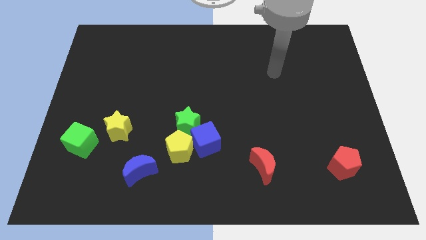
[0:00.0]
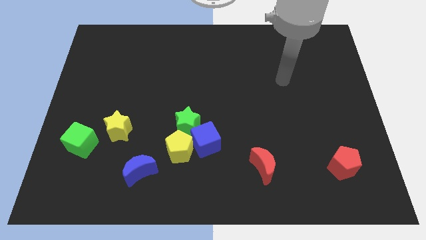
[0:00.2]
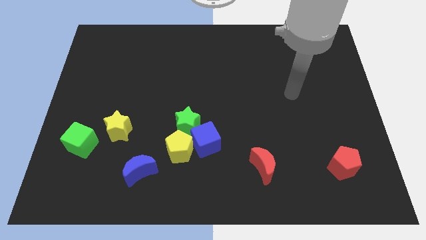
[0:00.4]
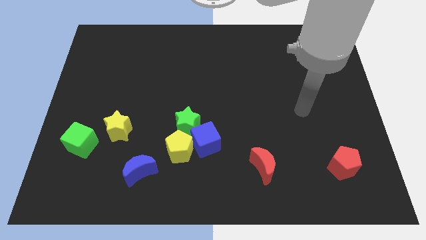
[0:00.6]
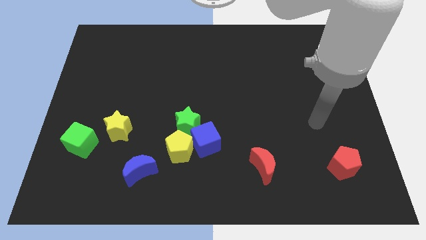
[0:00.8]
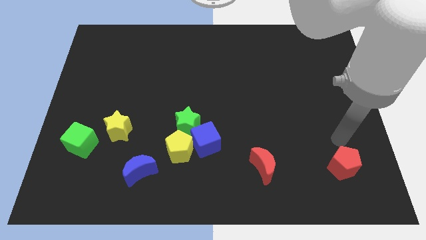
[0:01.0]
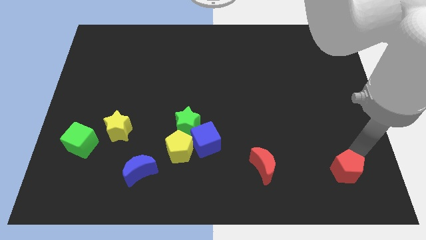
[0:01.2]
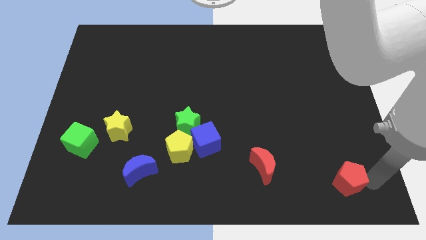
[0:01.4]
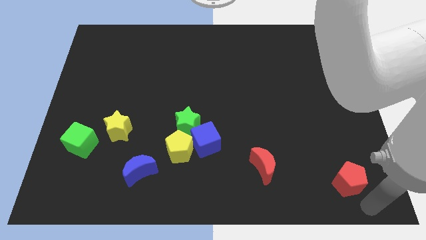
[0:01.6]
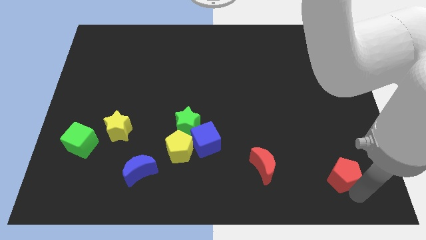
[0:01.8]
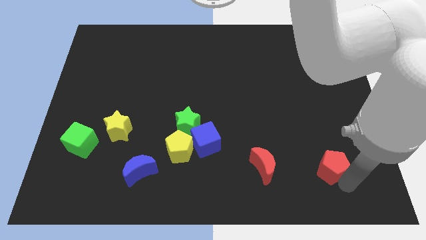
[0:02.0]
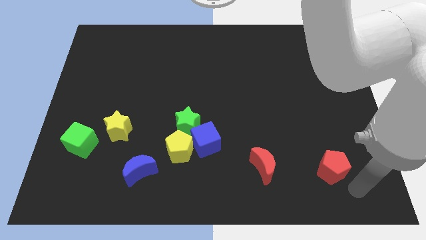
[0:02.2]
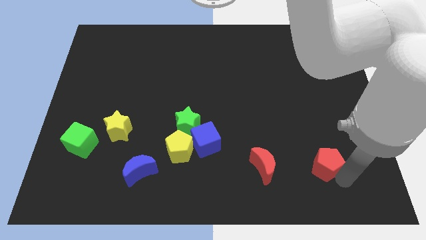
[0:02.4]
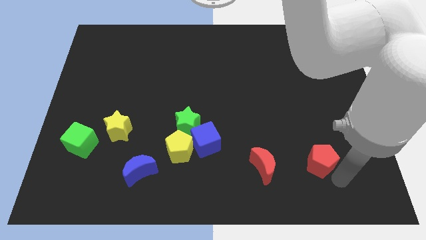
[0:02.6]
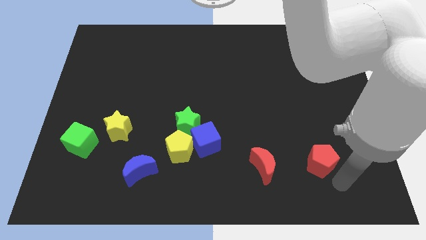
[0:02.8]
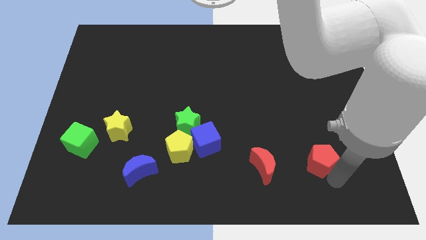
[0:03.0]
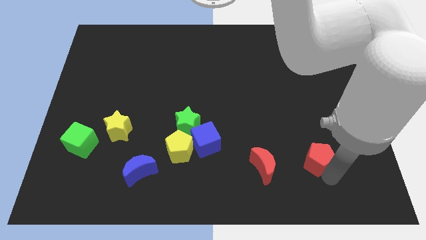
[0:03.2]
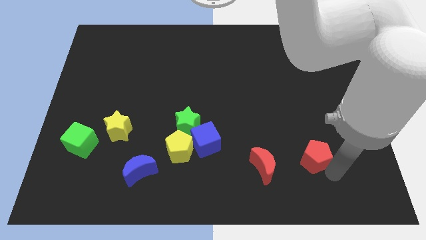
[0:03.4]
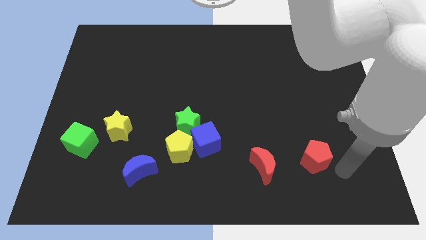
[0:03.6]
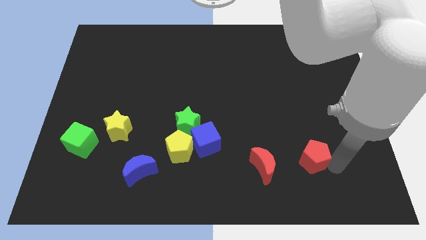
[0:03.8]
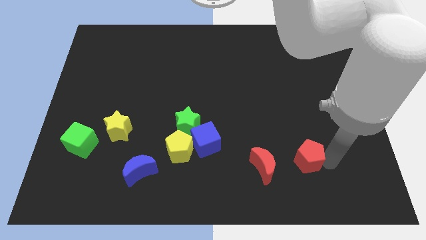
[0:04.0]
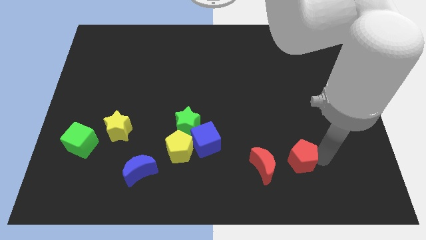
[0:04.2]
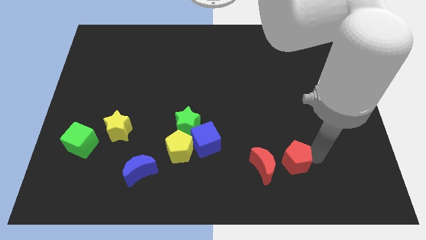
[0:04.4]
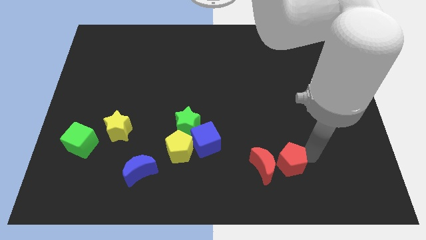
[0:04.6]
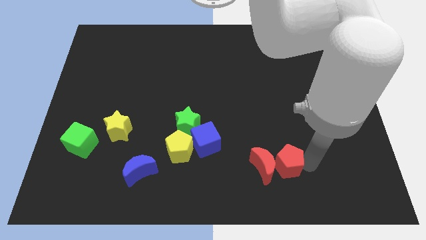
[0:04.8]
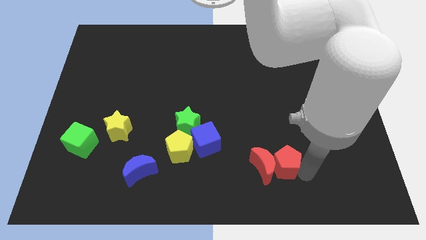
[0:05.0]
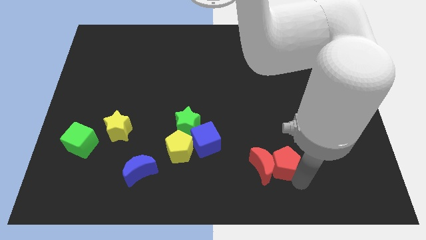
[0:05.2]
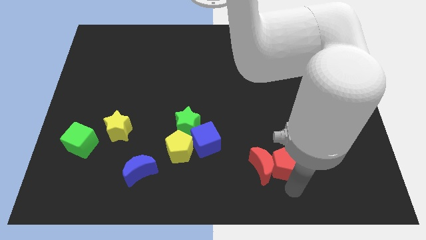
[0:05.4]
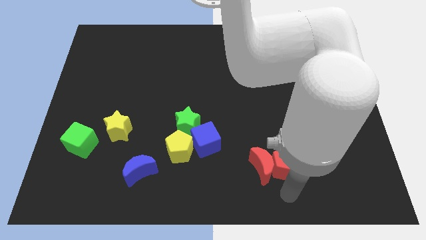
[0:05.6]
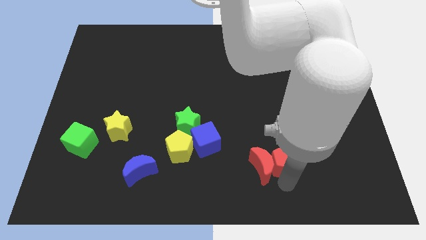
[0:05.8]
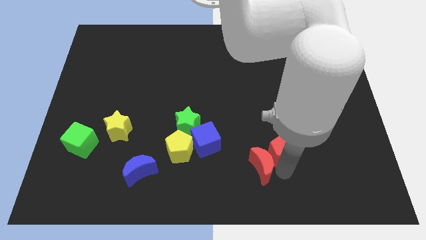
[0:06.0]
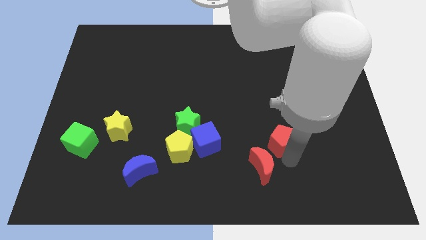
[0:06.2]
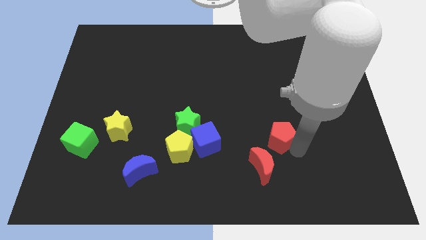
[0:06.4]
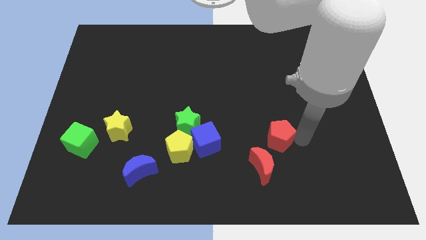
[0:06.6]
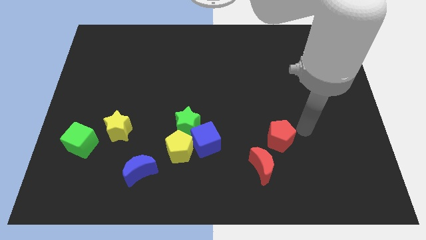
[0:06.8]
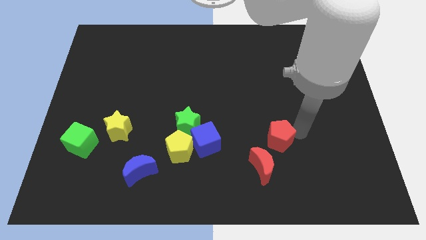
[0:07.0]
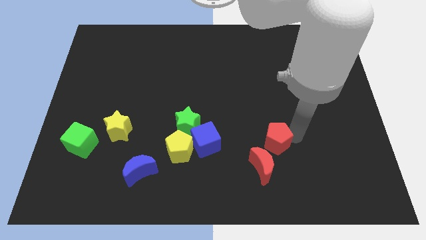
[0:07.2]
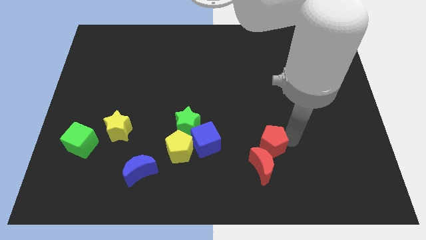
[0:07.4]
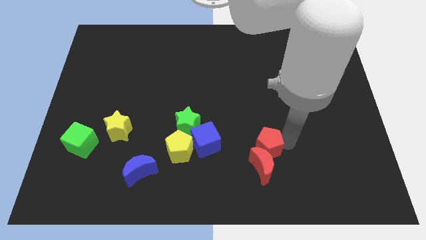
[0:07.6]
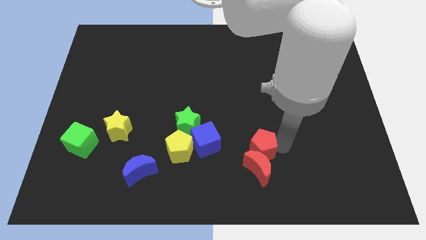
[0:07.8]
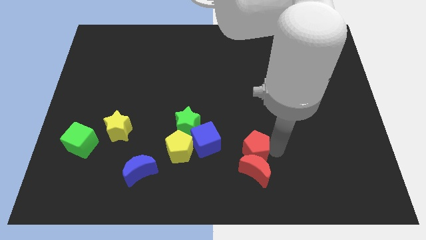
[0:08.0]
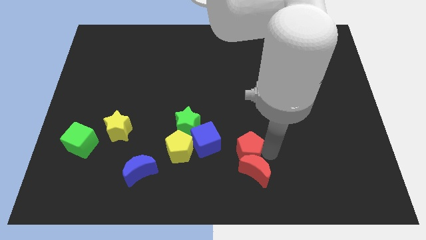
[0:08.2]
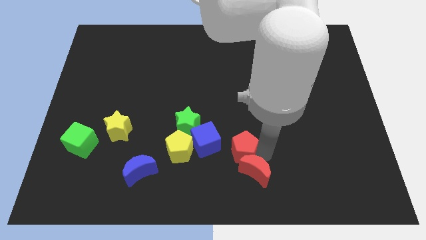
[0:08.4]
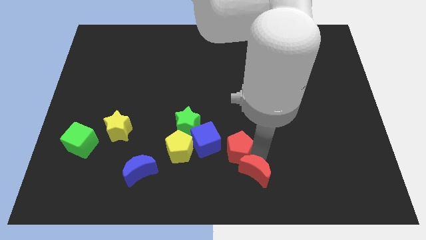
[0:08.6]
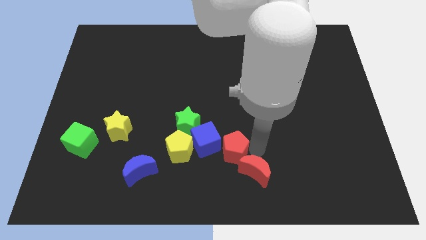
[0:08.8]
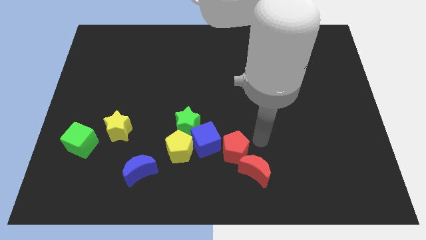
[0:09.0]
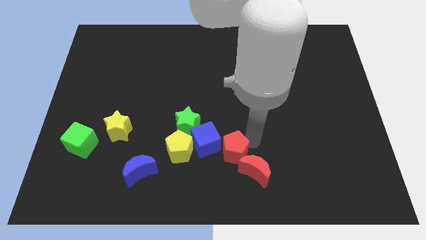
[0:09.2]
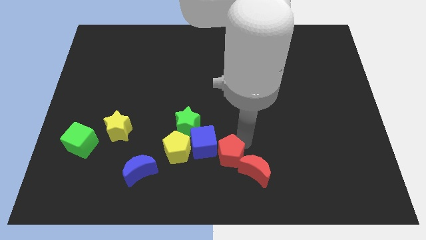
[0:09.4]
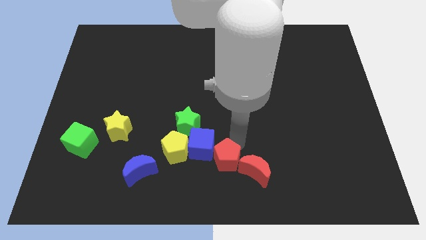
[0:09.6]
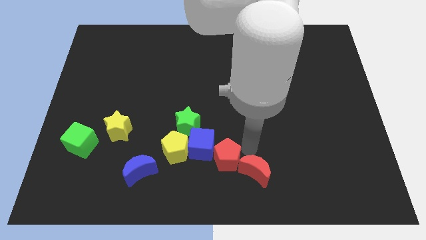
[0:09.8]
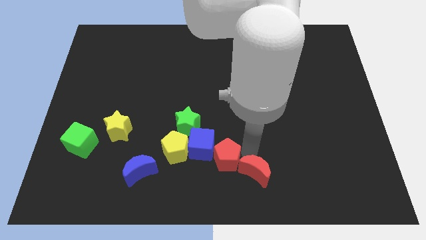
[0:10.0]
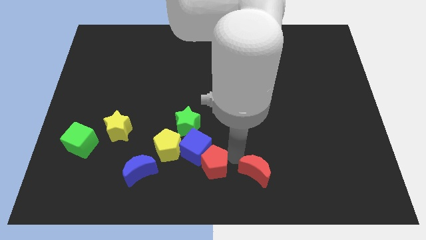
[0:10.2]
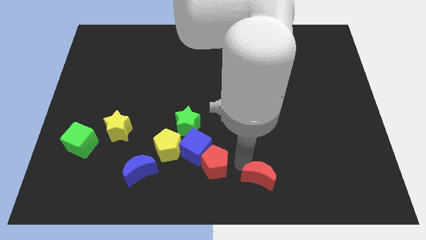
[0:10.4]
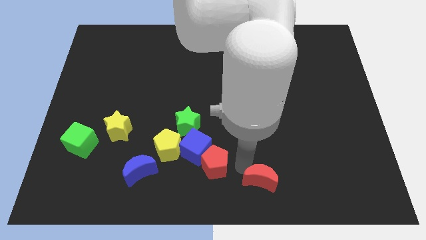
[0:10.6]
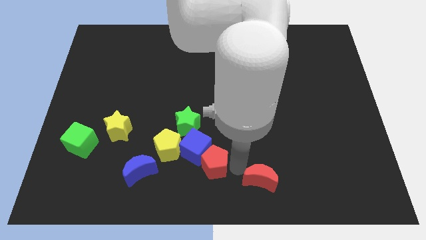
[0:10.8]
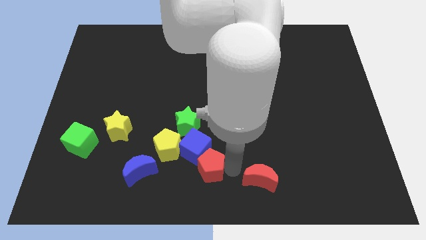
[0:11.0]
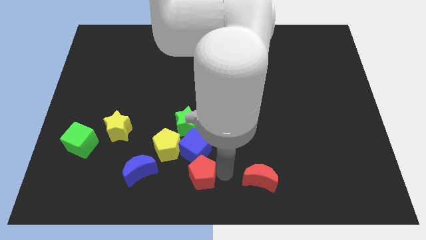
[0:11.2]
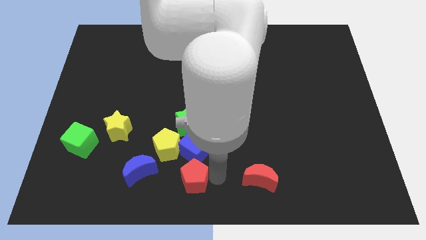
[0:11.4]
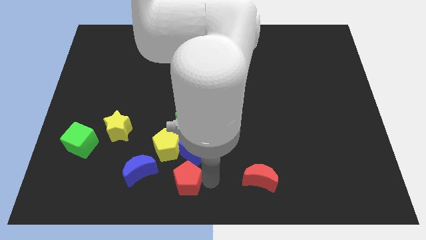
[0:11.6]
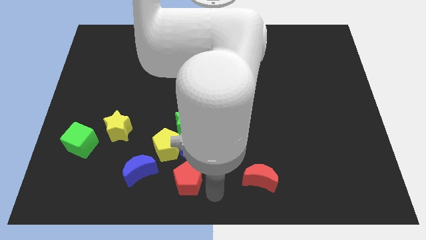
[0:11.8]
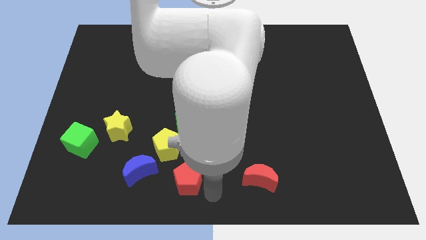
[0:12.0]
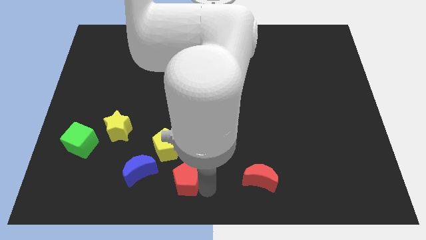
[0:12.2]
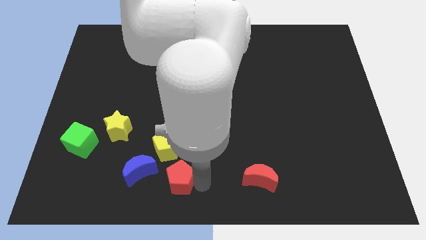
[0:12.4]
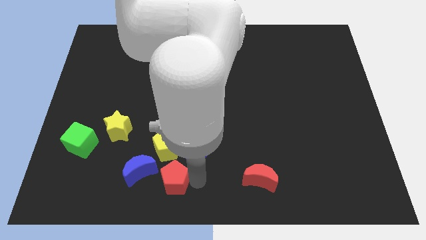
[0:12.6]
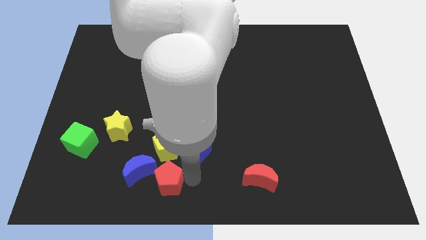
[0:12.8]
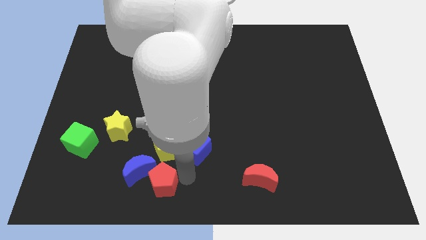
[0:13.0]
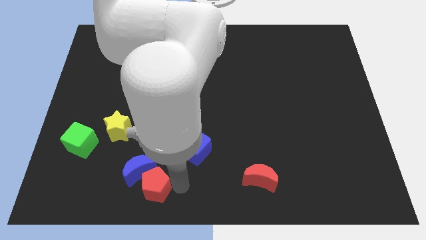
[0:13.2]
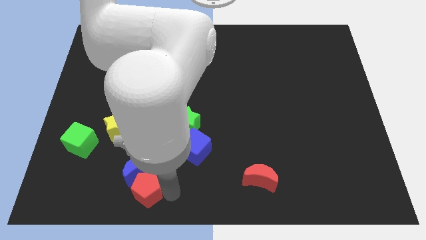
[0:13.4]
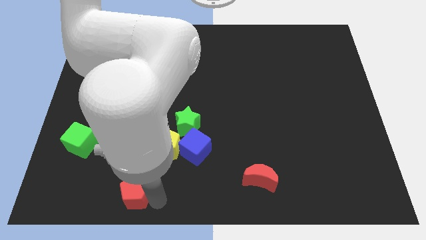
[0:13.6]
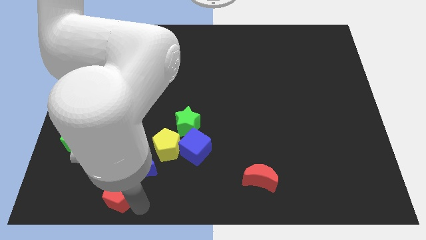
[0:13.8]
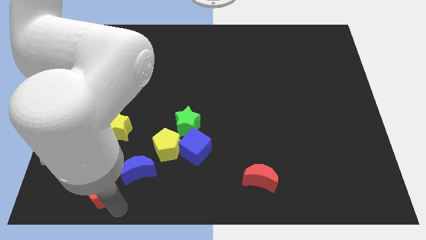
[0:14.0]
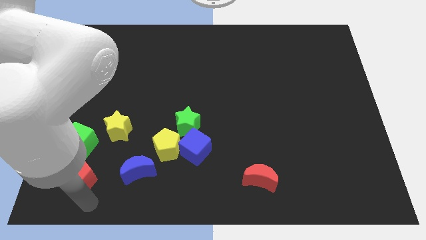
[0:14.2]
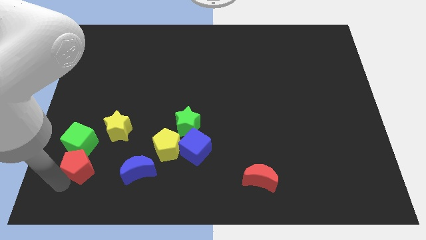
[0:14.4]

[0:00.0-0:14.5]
put the red pentagon next to the green cube

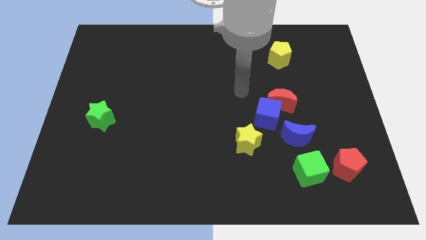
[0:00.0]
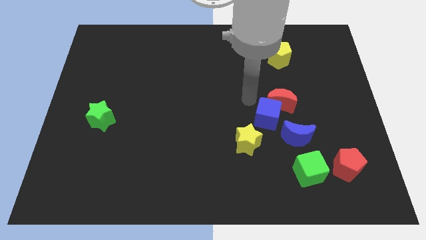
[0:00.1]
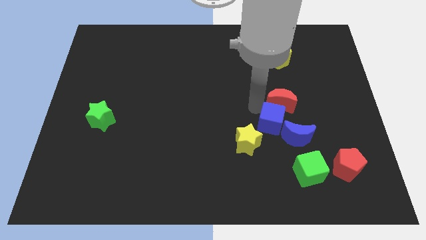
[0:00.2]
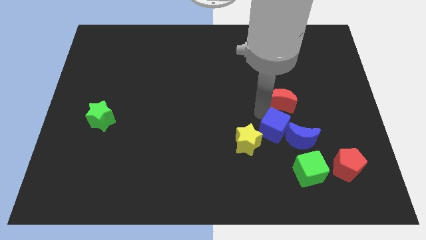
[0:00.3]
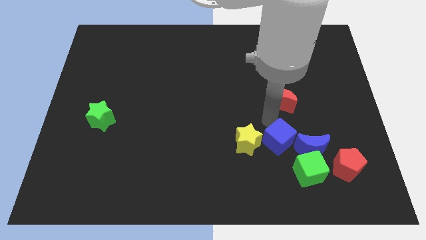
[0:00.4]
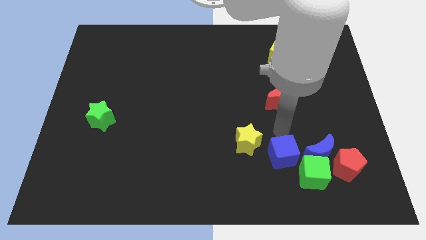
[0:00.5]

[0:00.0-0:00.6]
put the blue moon towards the red pentagon
